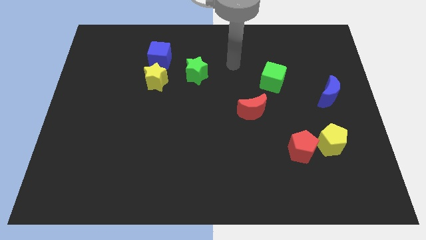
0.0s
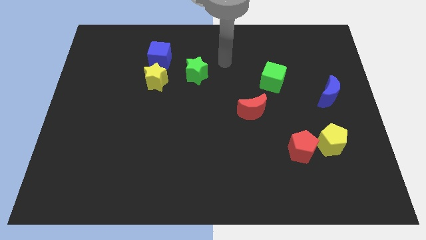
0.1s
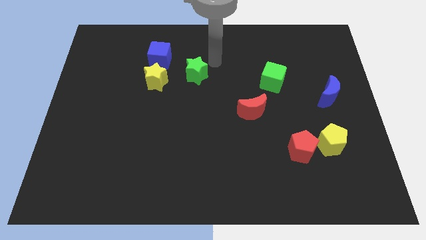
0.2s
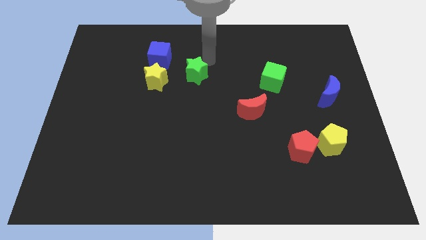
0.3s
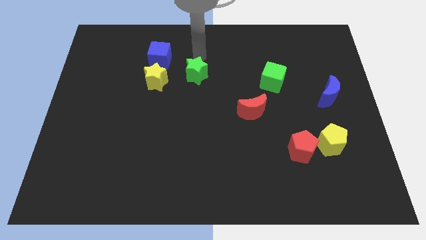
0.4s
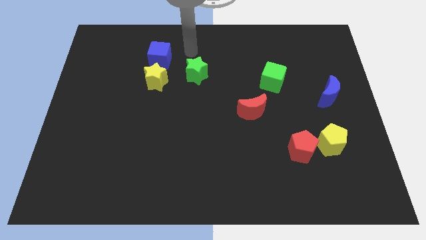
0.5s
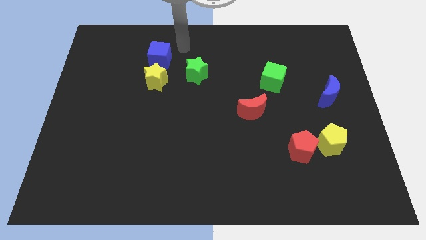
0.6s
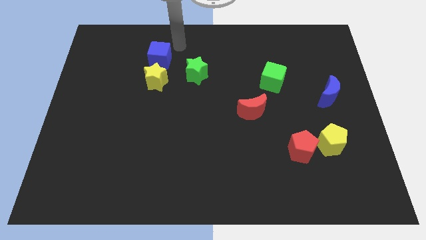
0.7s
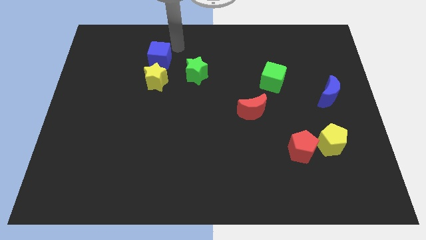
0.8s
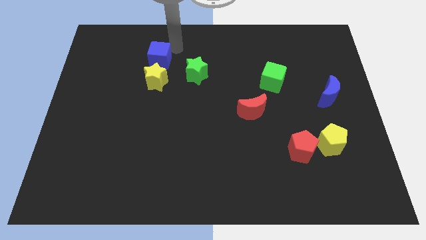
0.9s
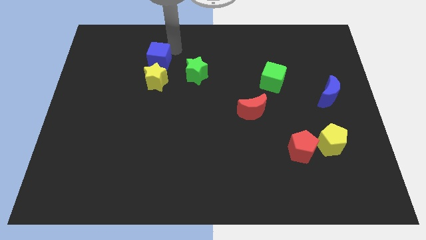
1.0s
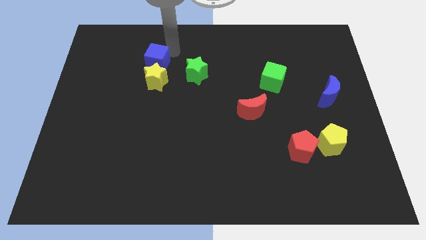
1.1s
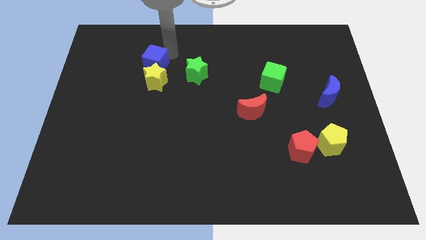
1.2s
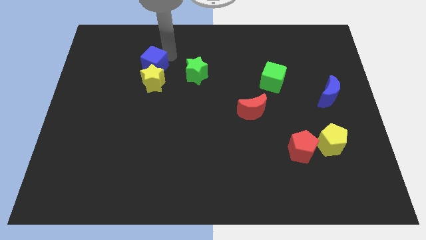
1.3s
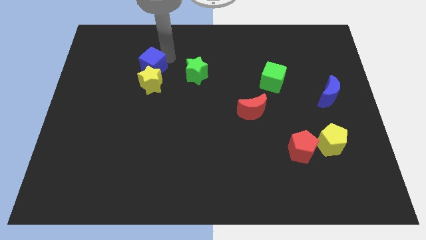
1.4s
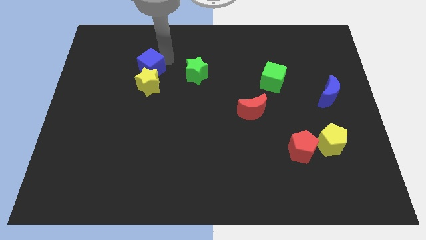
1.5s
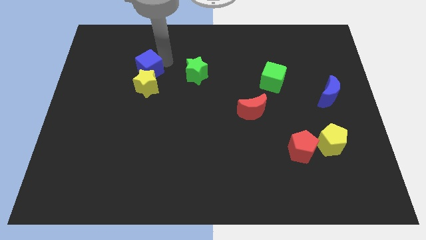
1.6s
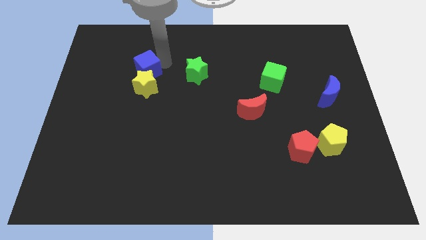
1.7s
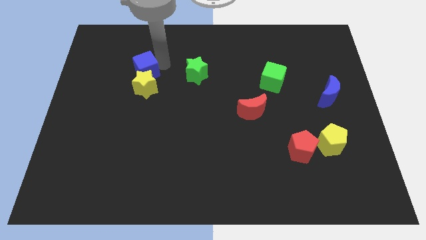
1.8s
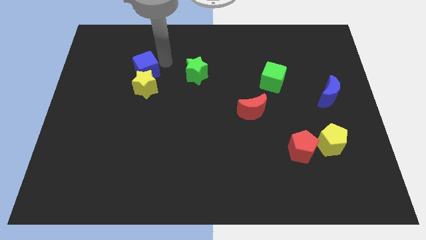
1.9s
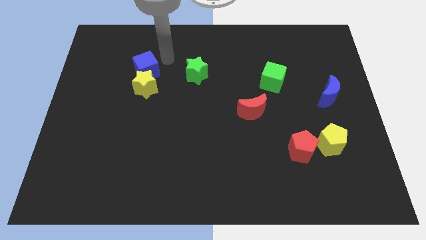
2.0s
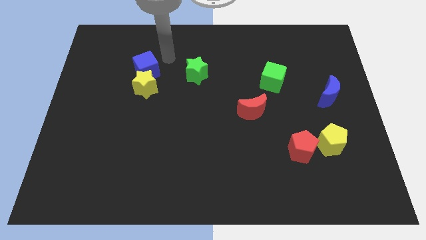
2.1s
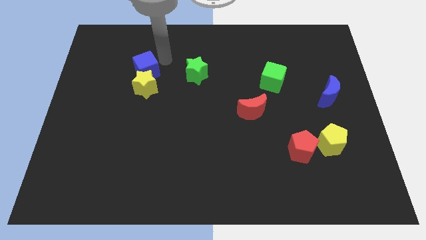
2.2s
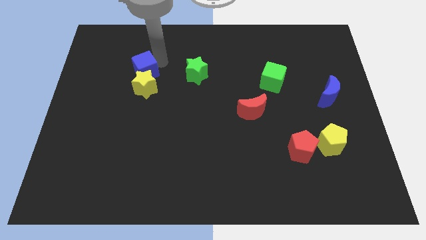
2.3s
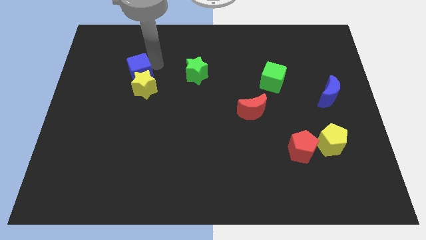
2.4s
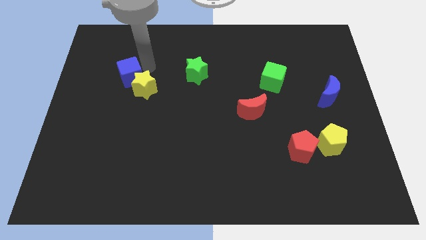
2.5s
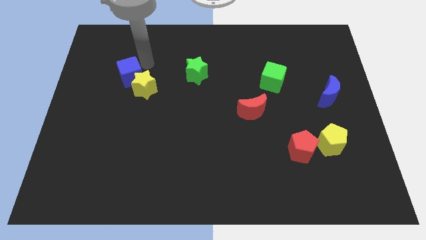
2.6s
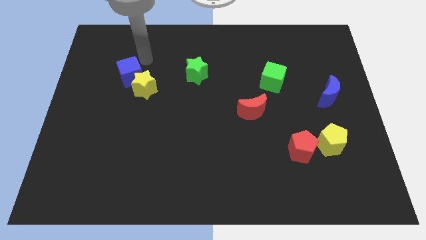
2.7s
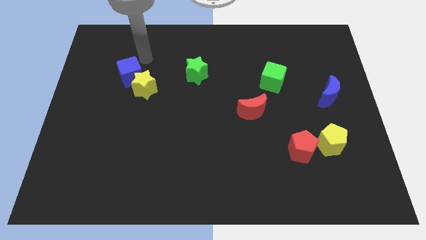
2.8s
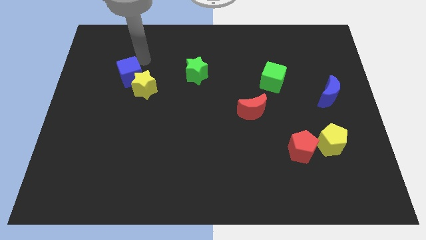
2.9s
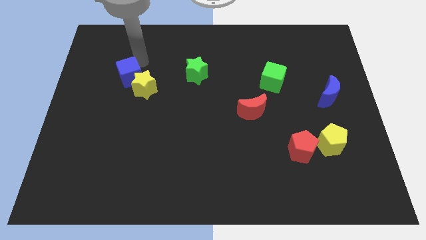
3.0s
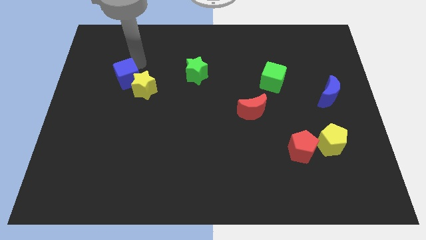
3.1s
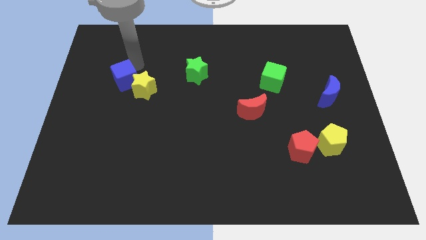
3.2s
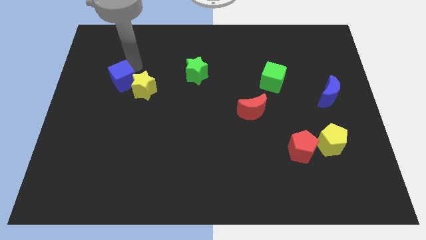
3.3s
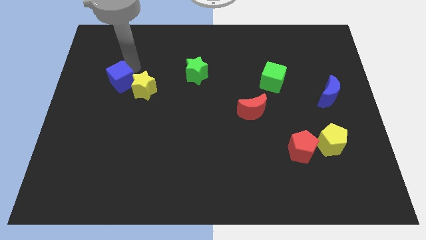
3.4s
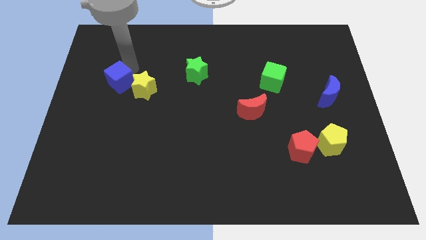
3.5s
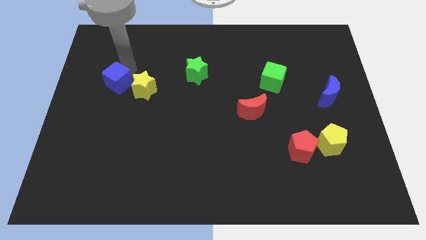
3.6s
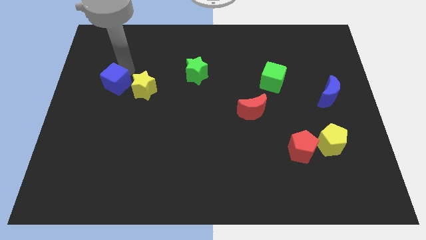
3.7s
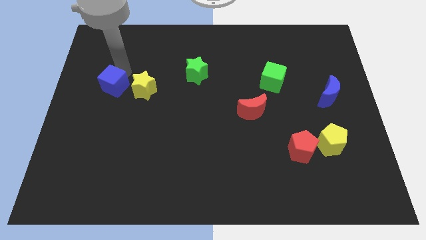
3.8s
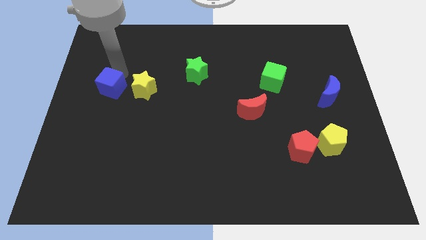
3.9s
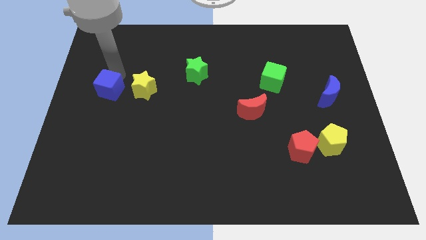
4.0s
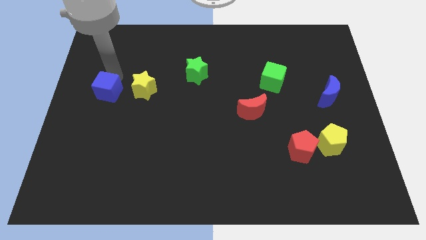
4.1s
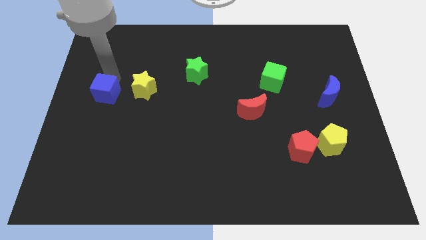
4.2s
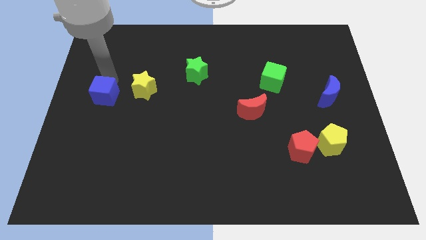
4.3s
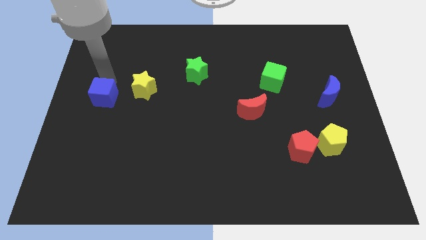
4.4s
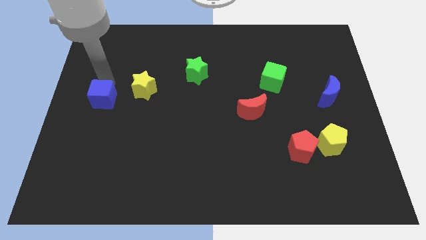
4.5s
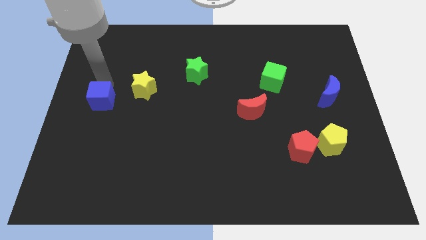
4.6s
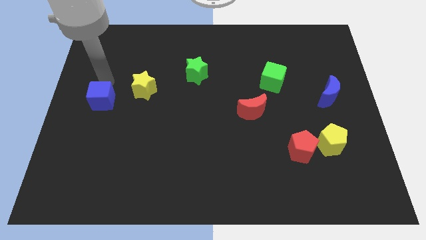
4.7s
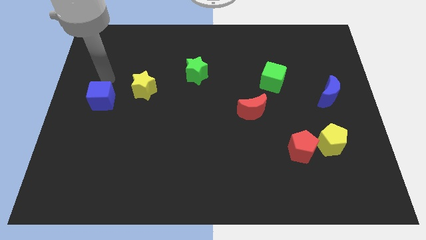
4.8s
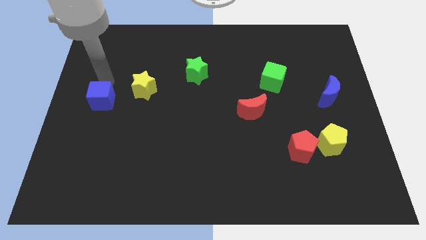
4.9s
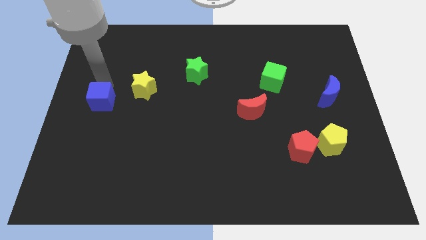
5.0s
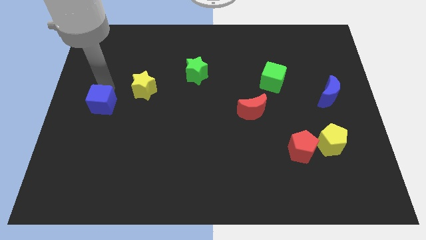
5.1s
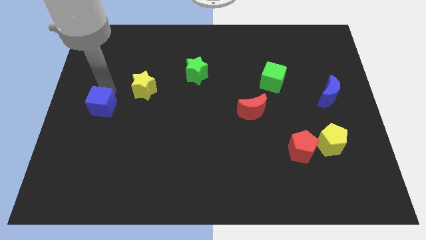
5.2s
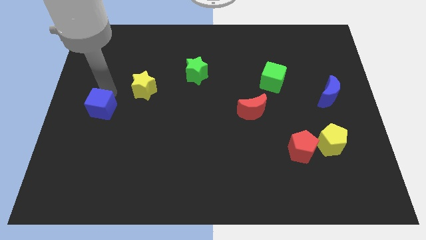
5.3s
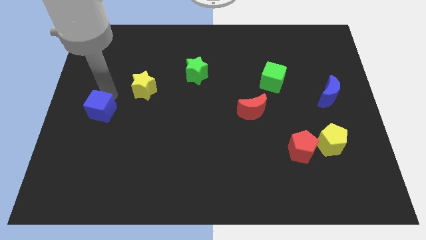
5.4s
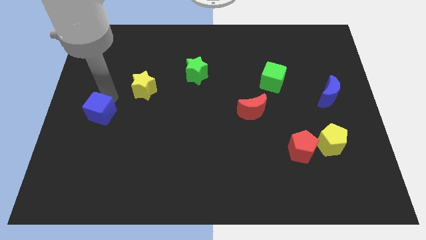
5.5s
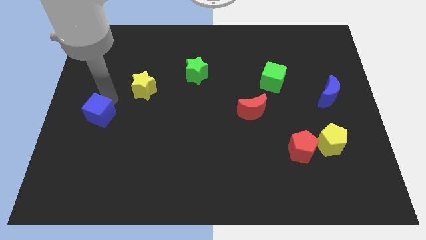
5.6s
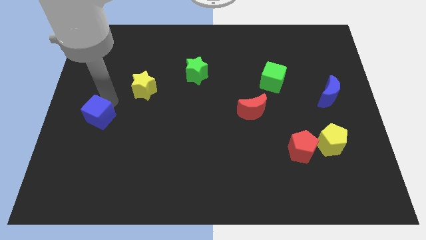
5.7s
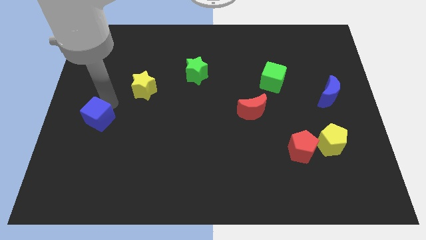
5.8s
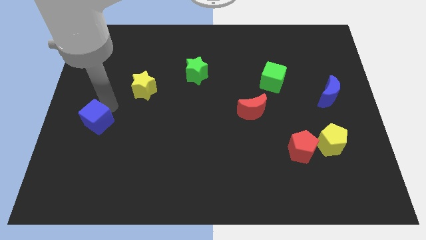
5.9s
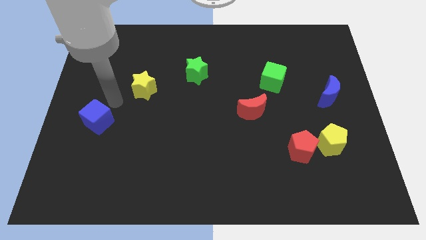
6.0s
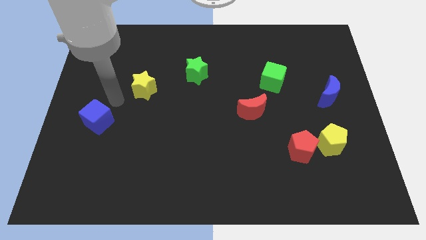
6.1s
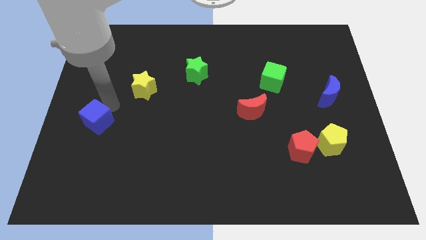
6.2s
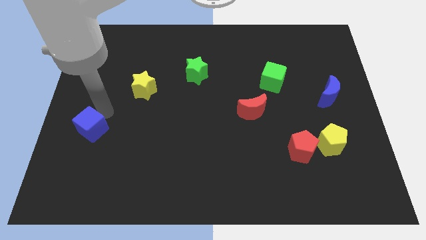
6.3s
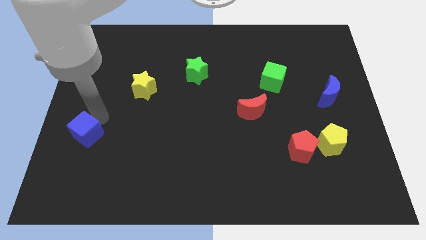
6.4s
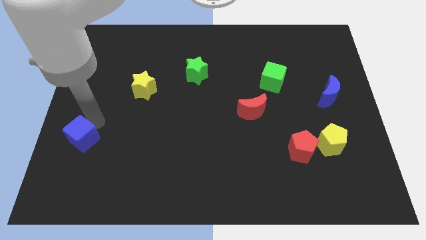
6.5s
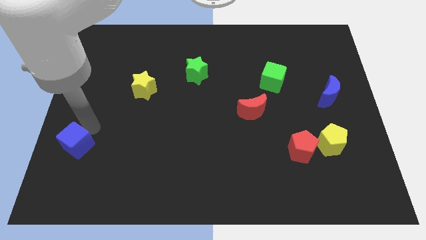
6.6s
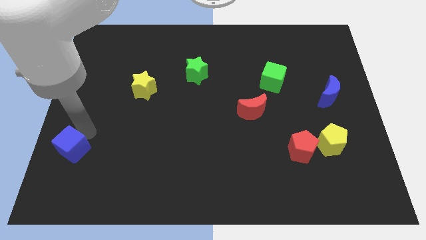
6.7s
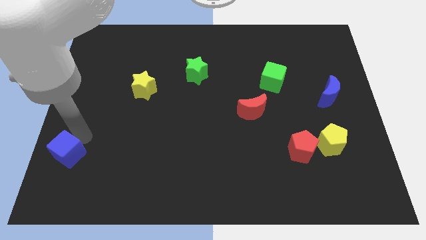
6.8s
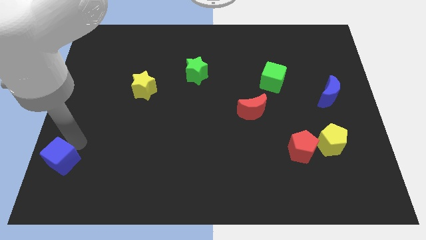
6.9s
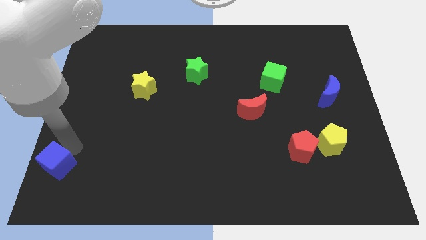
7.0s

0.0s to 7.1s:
put the blue cube to the bottom left corner

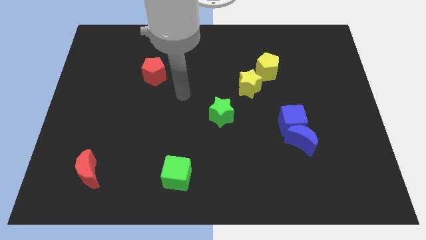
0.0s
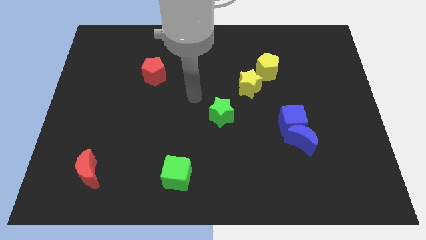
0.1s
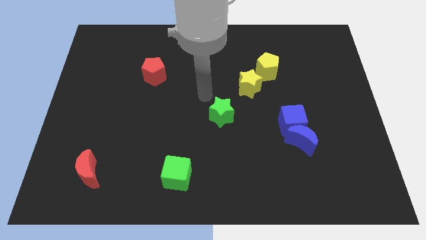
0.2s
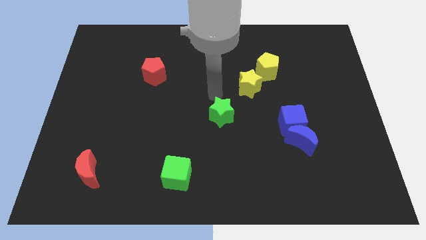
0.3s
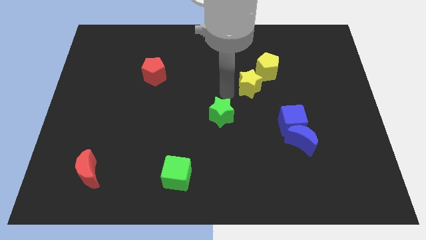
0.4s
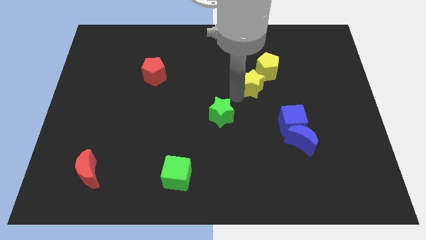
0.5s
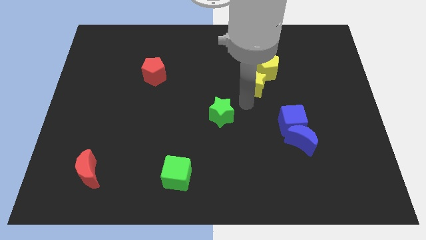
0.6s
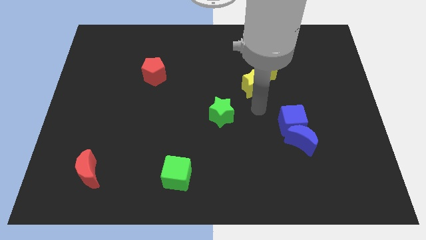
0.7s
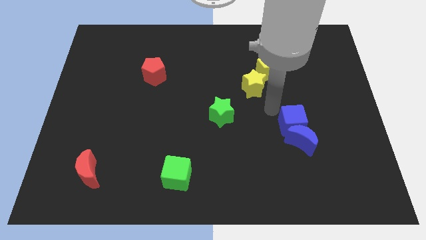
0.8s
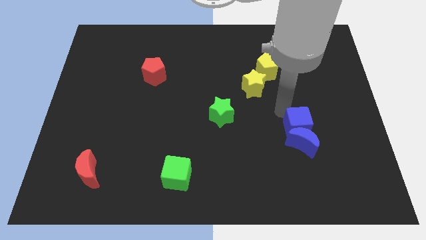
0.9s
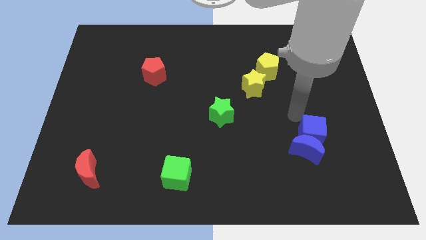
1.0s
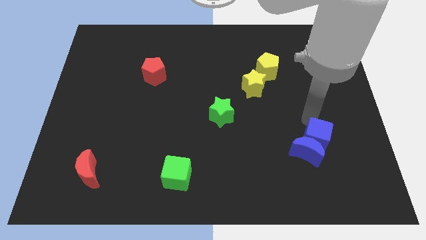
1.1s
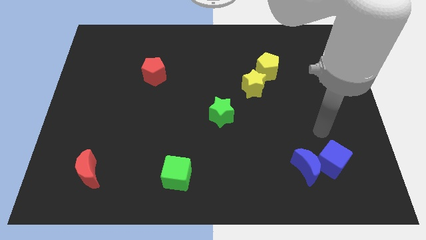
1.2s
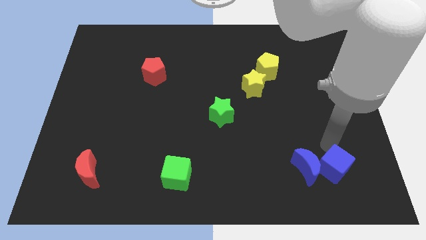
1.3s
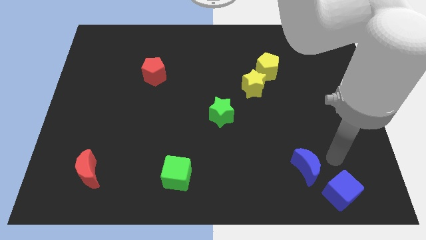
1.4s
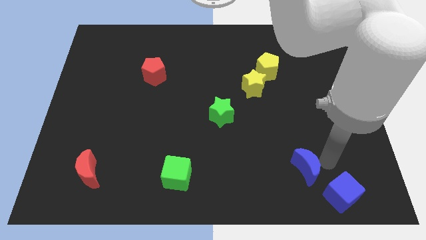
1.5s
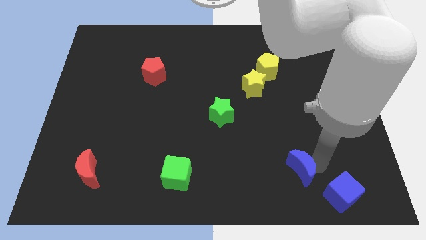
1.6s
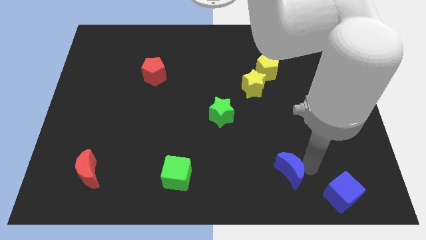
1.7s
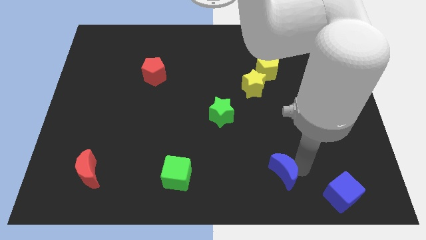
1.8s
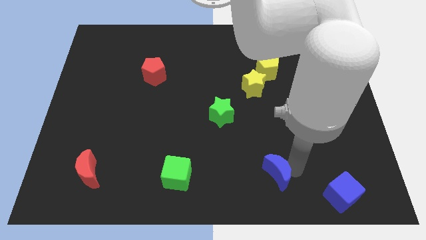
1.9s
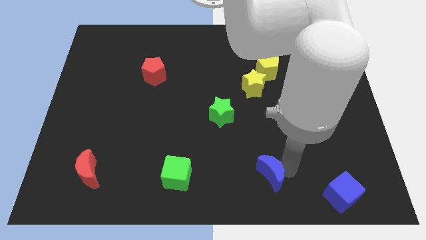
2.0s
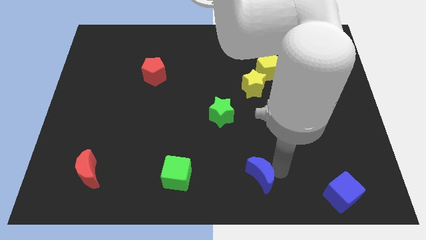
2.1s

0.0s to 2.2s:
slide the blue moon to the bottom
